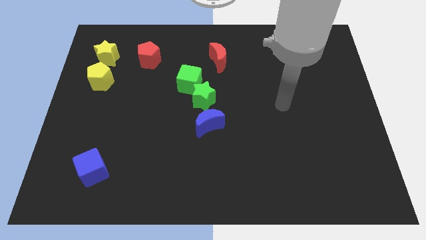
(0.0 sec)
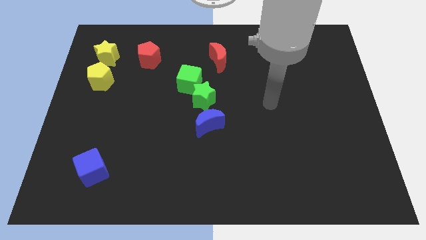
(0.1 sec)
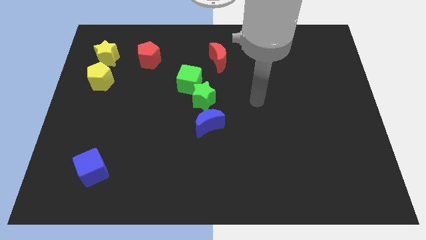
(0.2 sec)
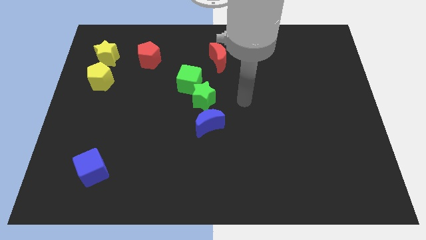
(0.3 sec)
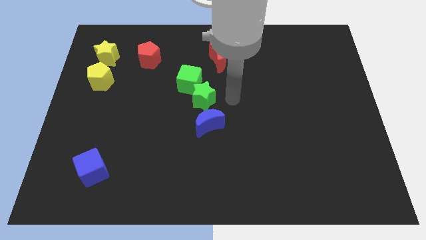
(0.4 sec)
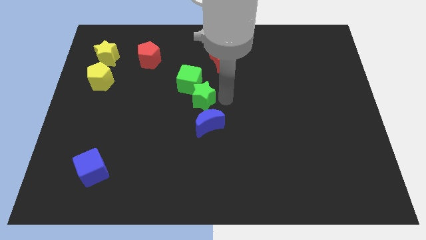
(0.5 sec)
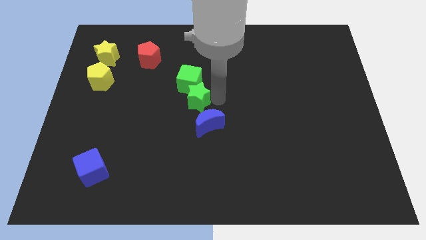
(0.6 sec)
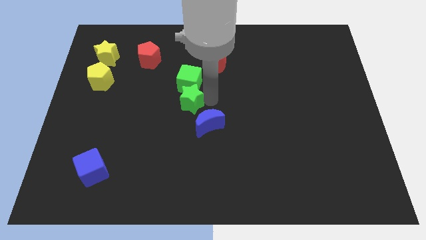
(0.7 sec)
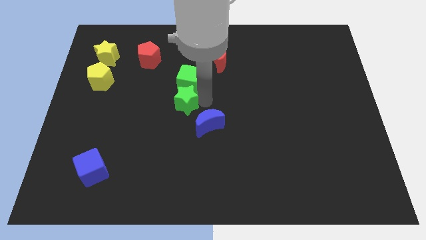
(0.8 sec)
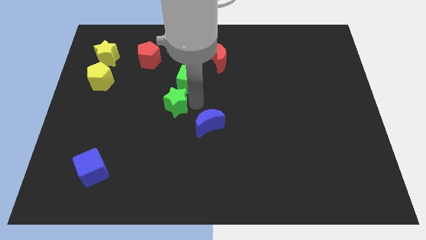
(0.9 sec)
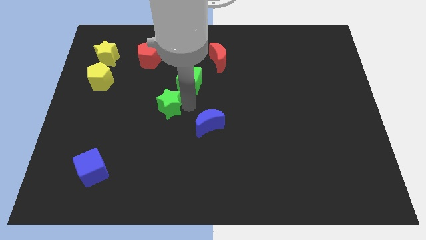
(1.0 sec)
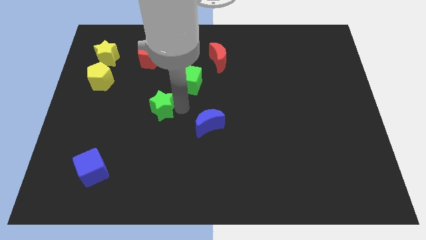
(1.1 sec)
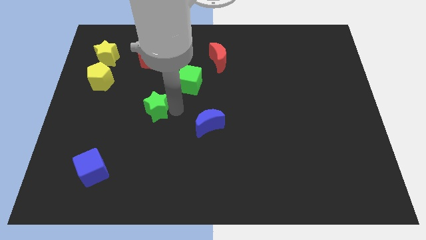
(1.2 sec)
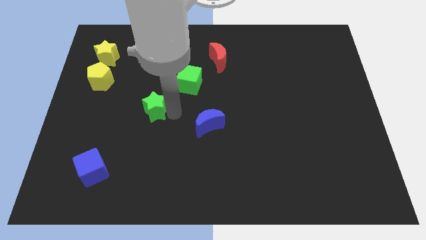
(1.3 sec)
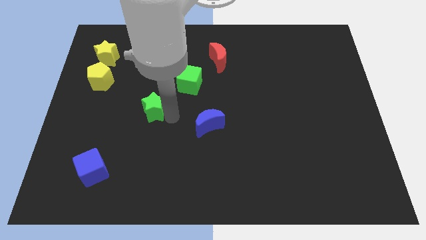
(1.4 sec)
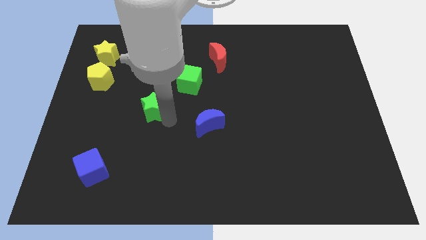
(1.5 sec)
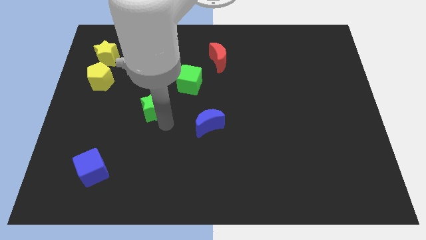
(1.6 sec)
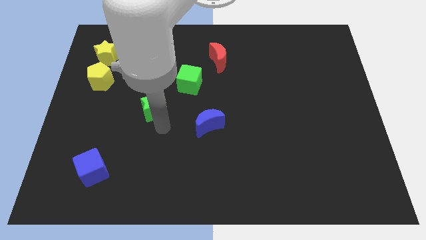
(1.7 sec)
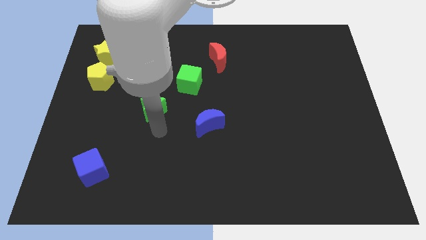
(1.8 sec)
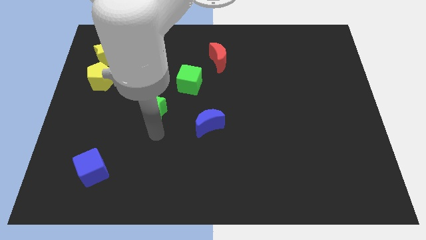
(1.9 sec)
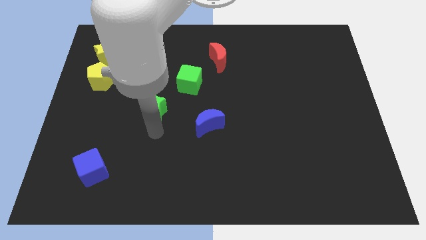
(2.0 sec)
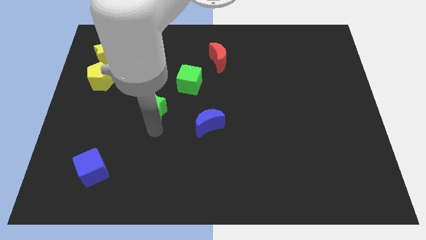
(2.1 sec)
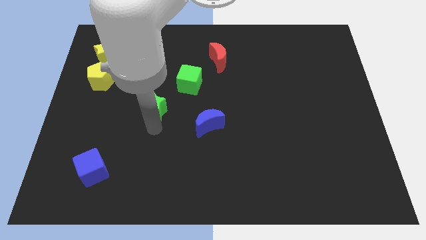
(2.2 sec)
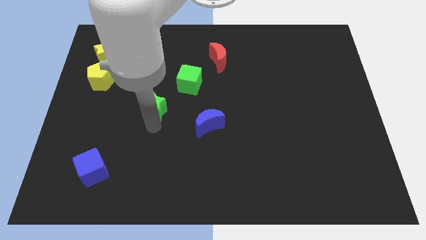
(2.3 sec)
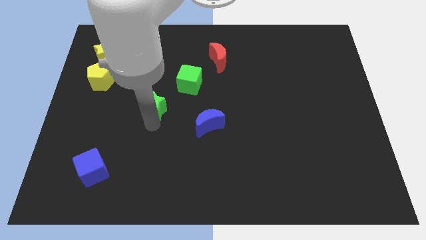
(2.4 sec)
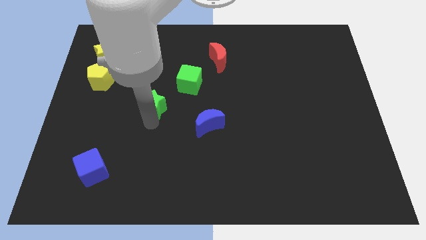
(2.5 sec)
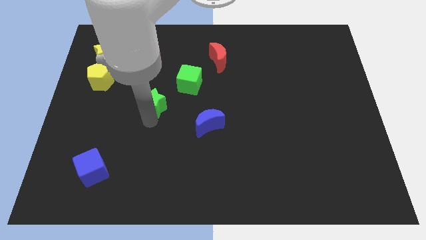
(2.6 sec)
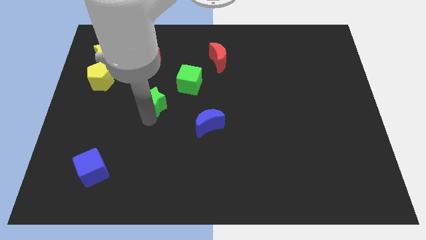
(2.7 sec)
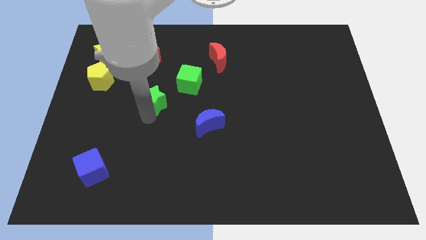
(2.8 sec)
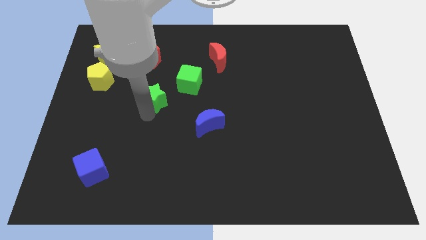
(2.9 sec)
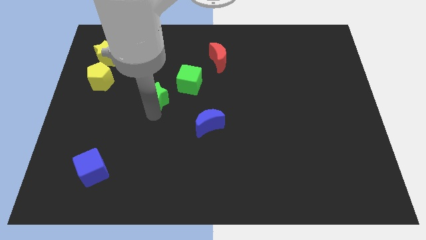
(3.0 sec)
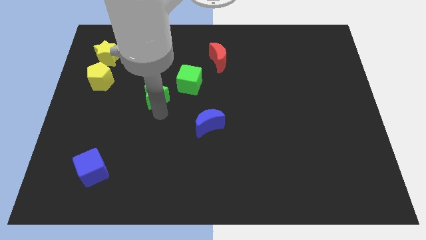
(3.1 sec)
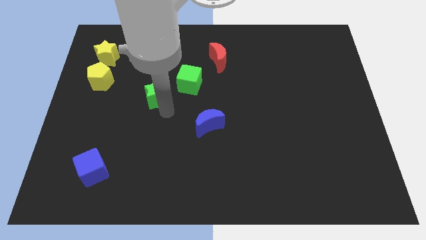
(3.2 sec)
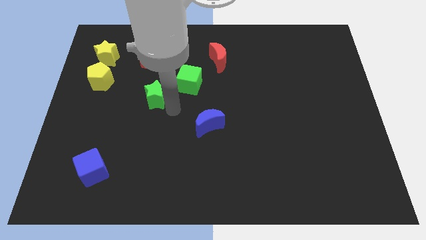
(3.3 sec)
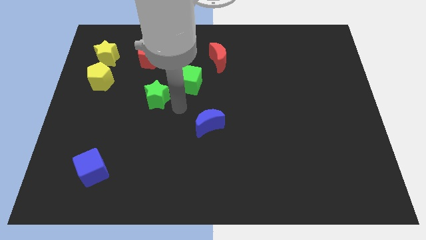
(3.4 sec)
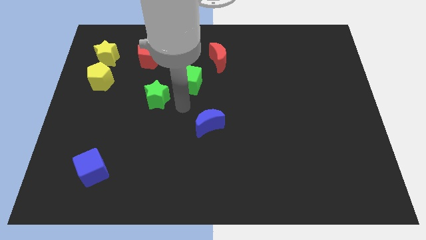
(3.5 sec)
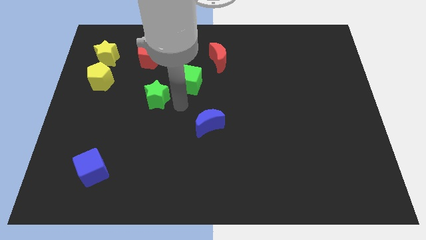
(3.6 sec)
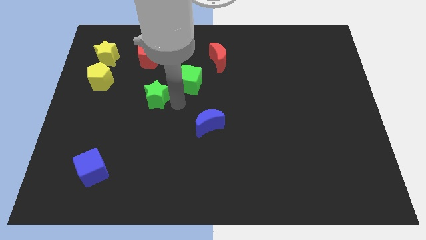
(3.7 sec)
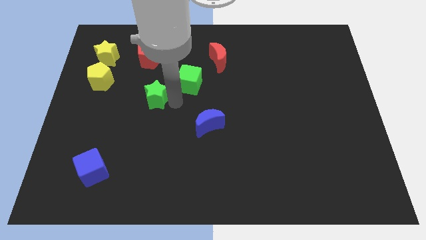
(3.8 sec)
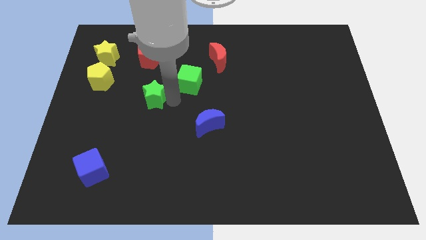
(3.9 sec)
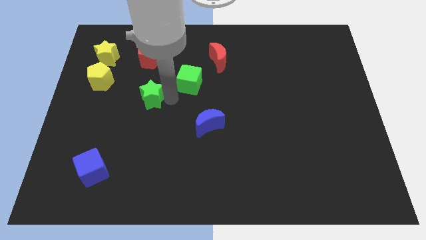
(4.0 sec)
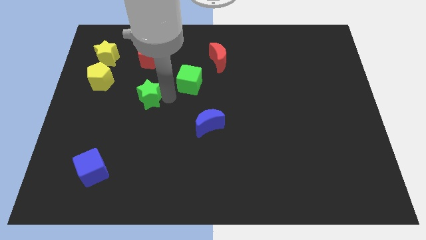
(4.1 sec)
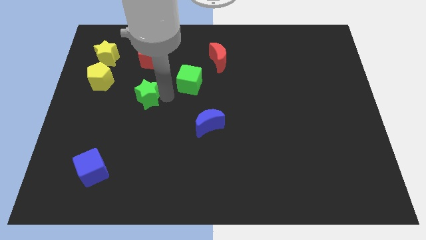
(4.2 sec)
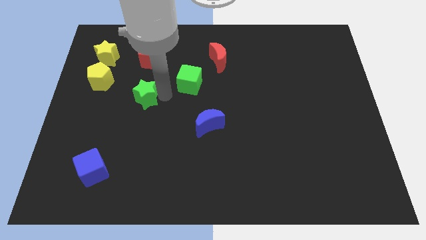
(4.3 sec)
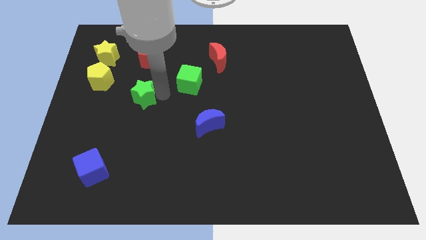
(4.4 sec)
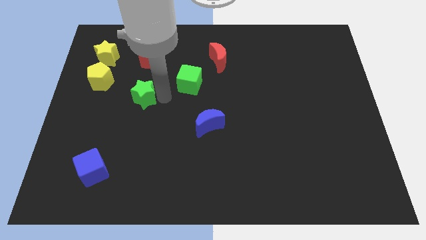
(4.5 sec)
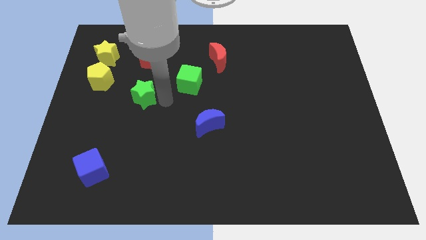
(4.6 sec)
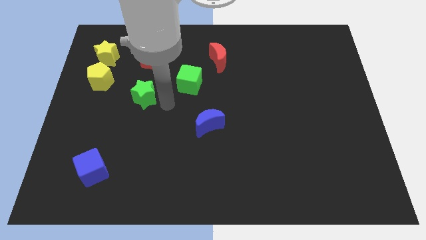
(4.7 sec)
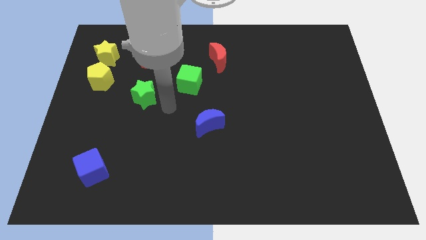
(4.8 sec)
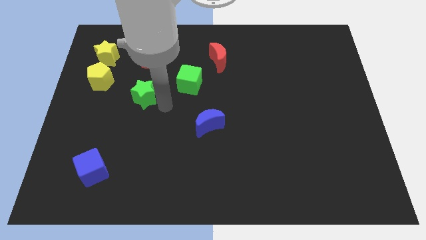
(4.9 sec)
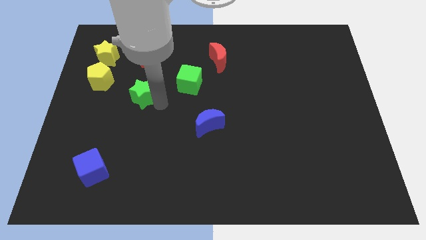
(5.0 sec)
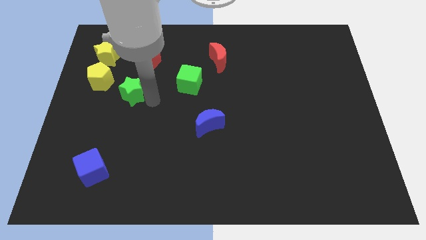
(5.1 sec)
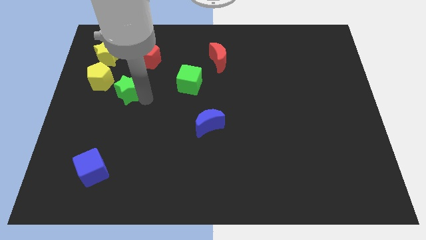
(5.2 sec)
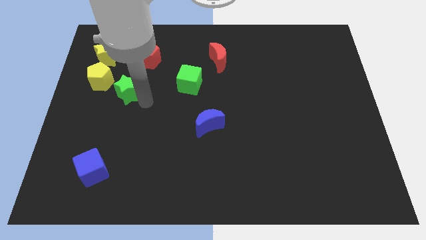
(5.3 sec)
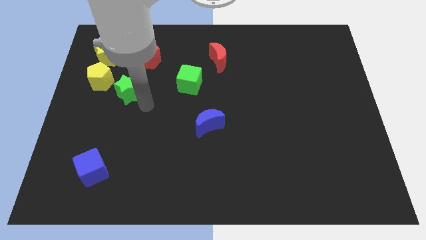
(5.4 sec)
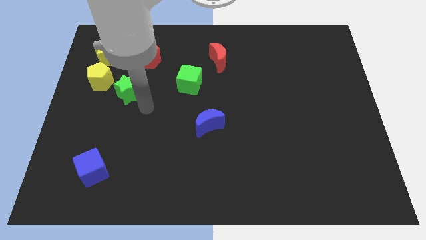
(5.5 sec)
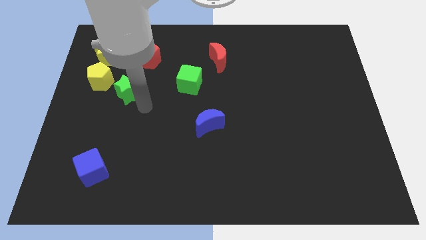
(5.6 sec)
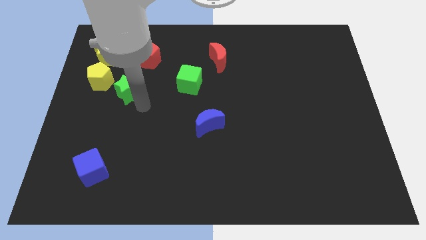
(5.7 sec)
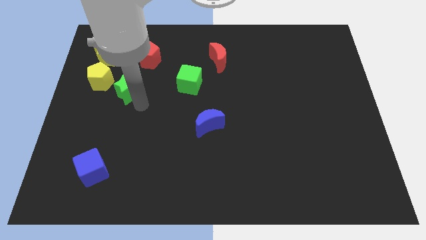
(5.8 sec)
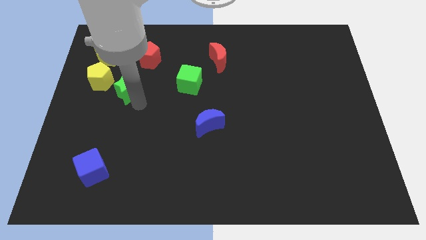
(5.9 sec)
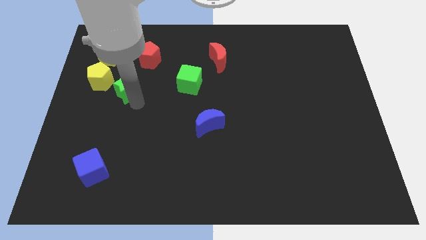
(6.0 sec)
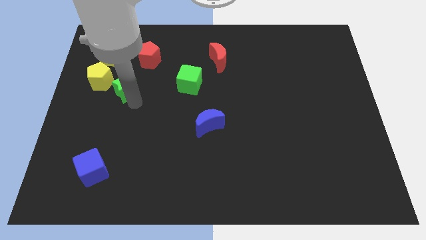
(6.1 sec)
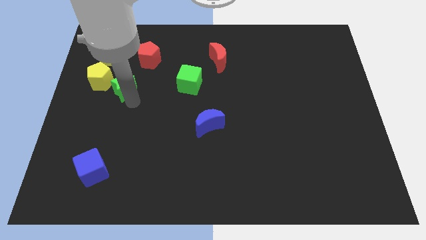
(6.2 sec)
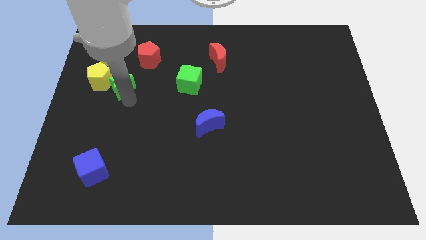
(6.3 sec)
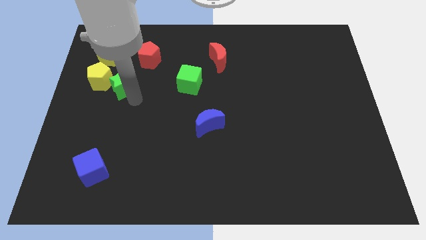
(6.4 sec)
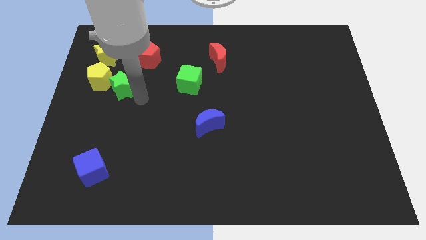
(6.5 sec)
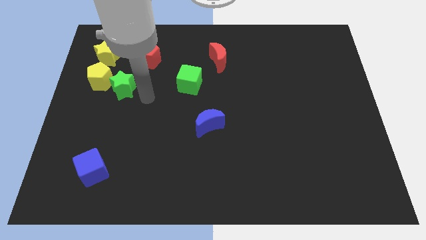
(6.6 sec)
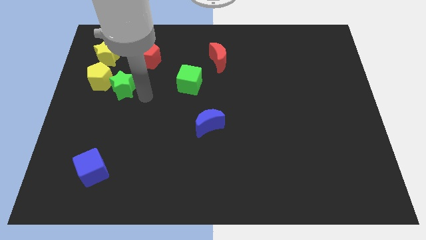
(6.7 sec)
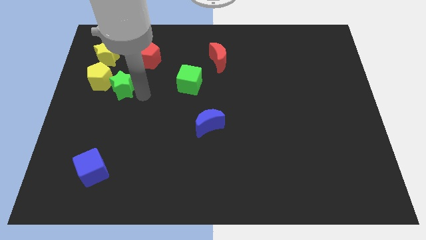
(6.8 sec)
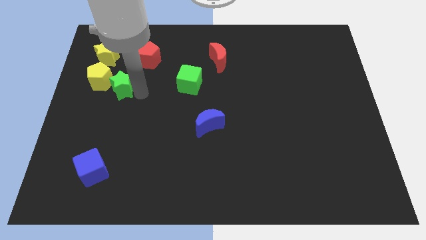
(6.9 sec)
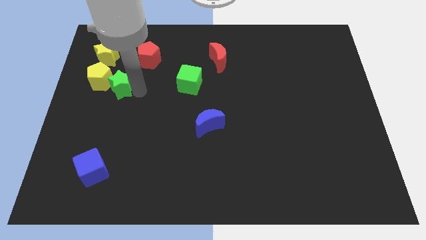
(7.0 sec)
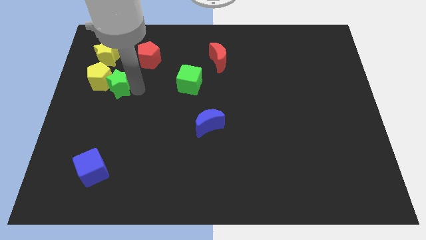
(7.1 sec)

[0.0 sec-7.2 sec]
push the green star close to the yellow pentagon

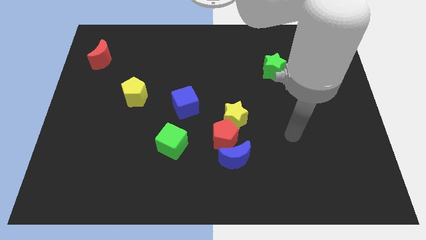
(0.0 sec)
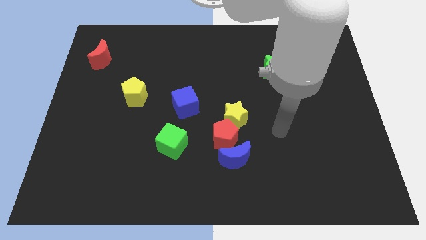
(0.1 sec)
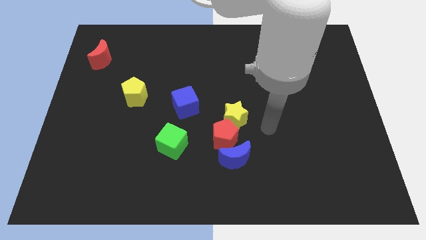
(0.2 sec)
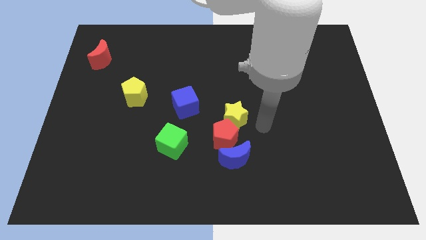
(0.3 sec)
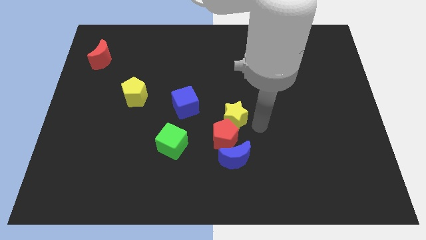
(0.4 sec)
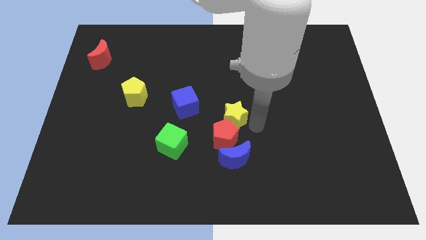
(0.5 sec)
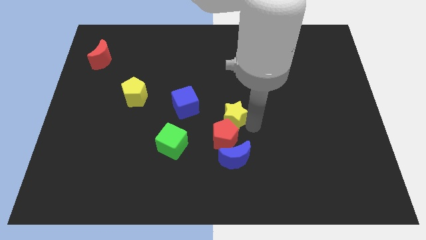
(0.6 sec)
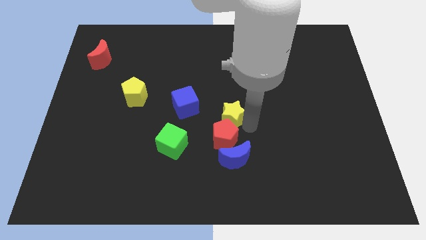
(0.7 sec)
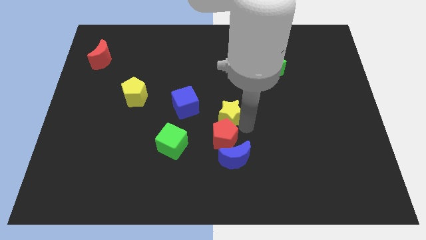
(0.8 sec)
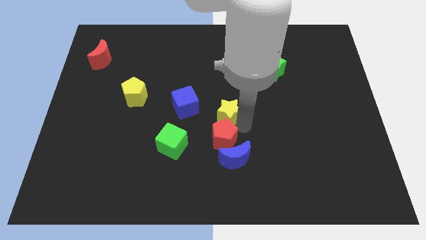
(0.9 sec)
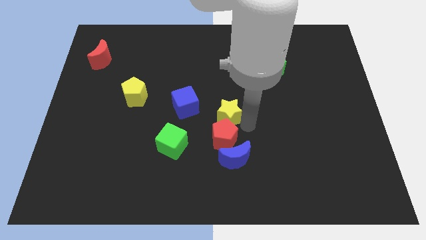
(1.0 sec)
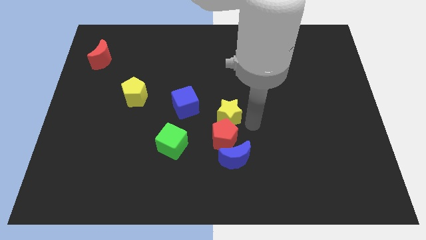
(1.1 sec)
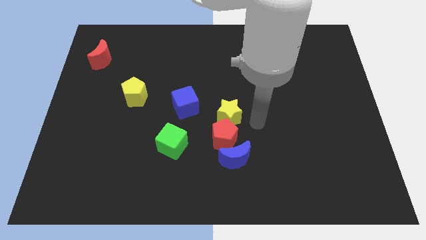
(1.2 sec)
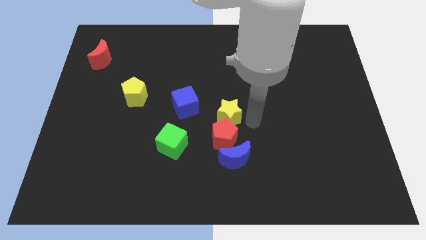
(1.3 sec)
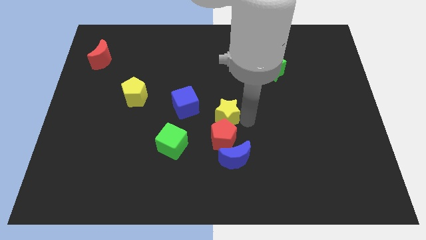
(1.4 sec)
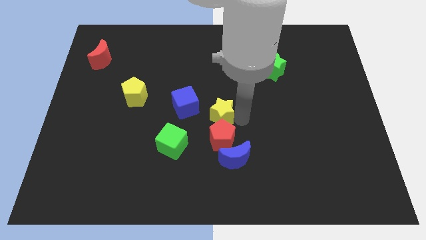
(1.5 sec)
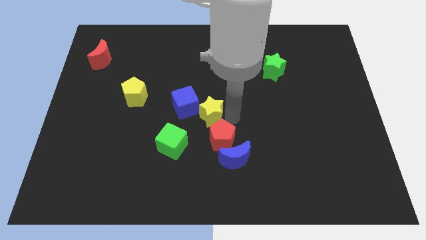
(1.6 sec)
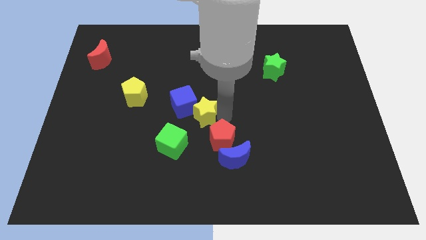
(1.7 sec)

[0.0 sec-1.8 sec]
put the yellow star next to the blue cube
